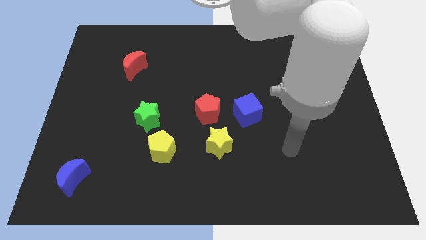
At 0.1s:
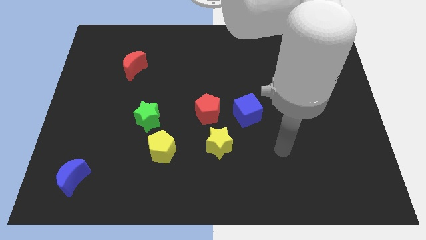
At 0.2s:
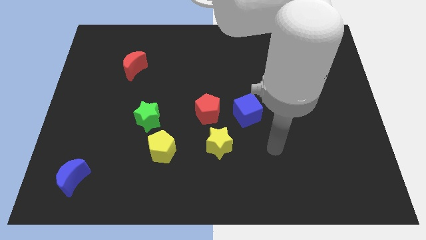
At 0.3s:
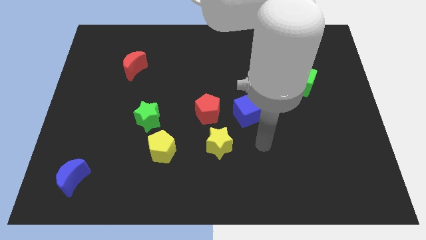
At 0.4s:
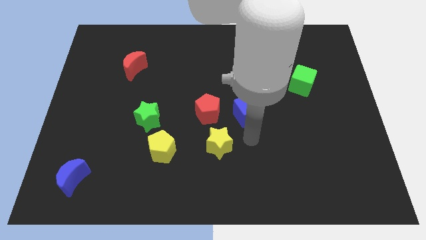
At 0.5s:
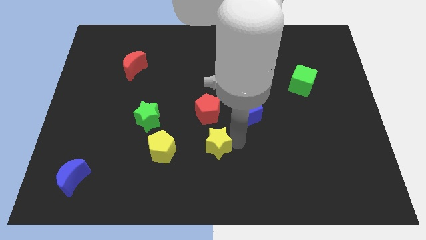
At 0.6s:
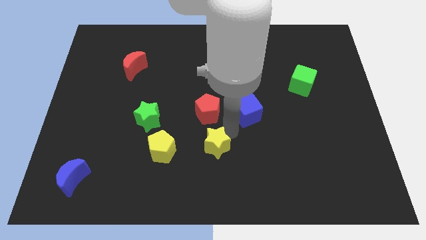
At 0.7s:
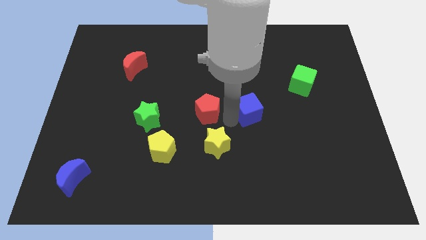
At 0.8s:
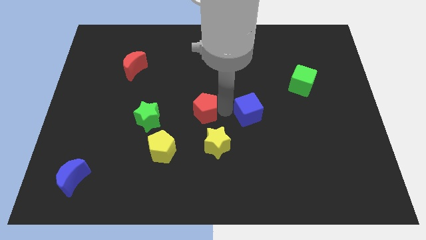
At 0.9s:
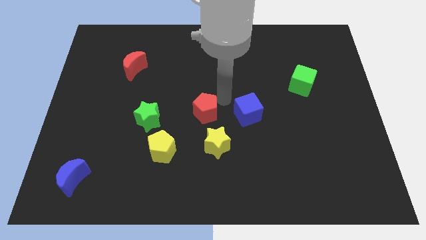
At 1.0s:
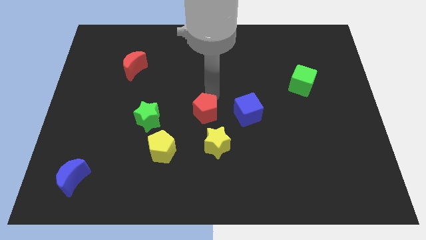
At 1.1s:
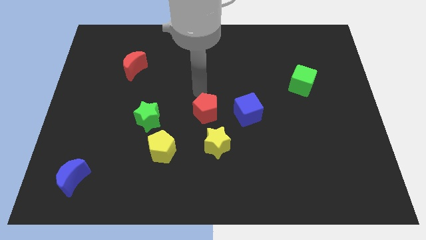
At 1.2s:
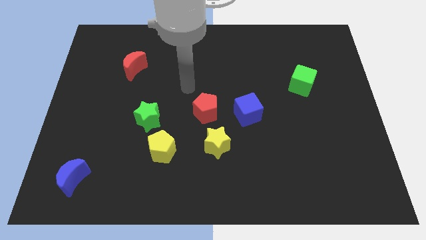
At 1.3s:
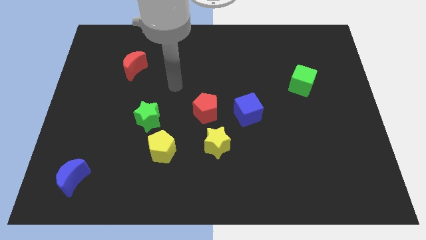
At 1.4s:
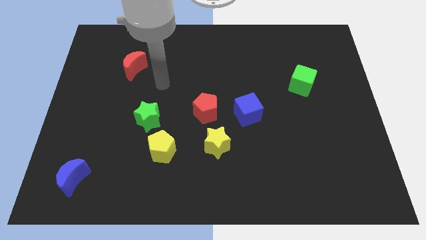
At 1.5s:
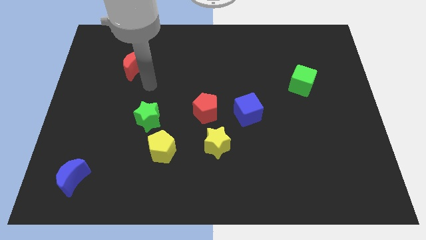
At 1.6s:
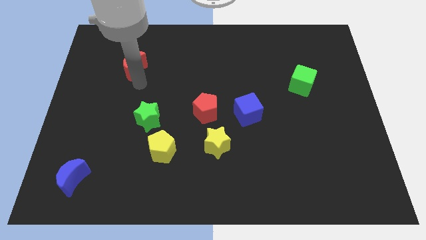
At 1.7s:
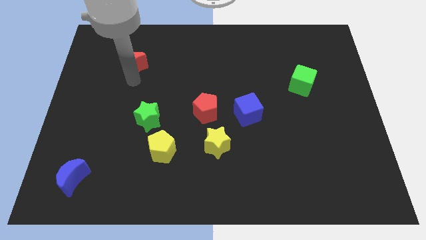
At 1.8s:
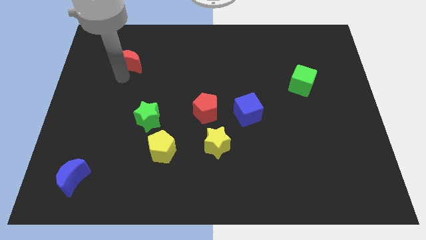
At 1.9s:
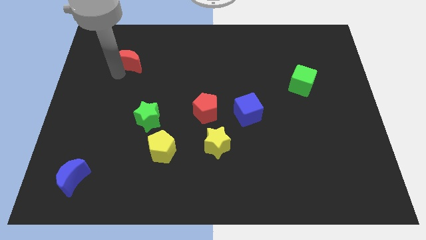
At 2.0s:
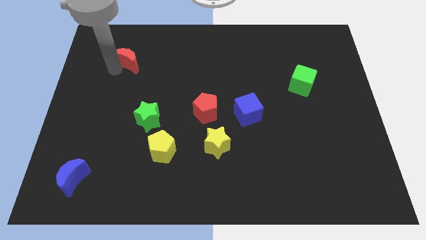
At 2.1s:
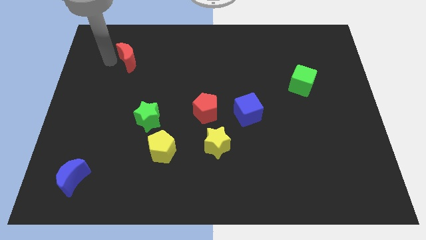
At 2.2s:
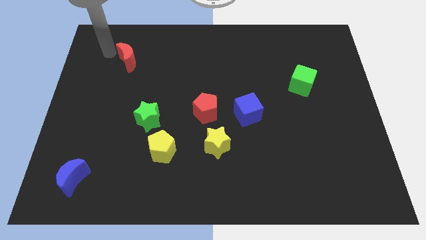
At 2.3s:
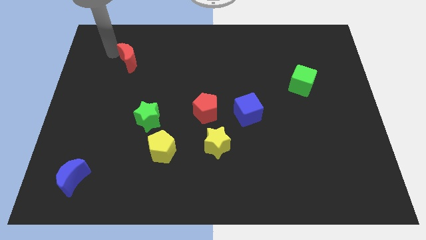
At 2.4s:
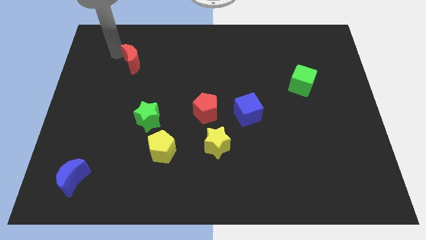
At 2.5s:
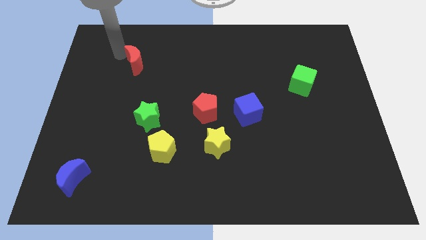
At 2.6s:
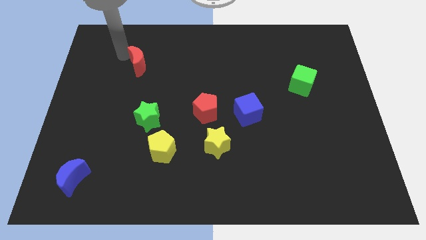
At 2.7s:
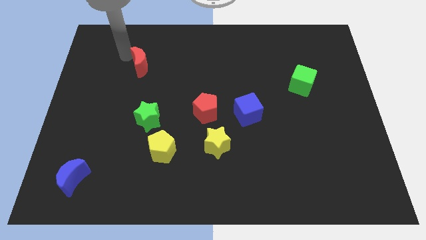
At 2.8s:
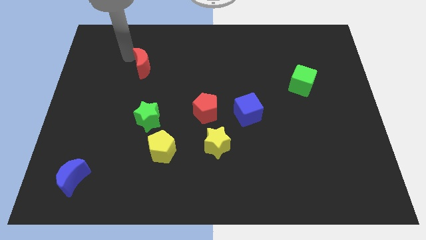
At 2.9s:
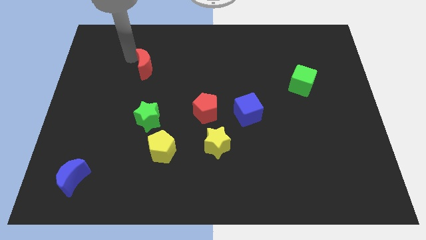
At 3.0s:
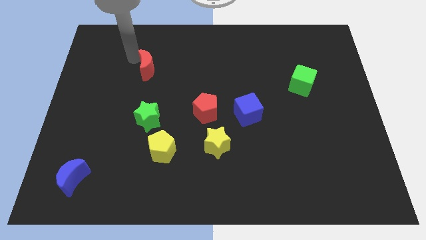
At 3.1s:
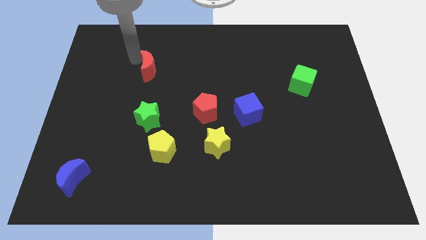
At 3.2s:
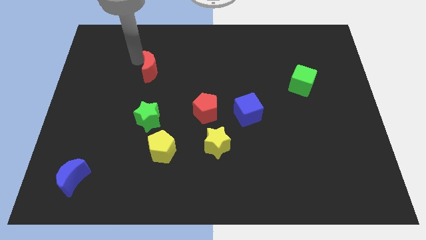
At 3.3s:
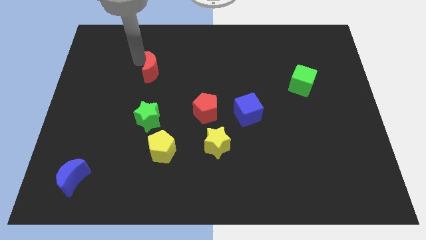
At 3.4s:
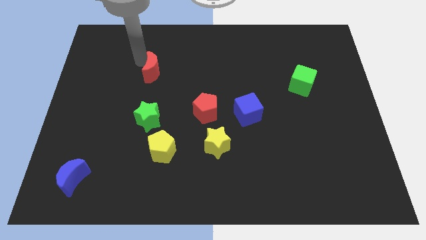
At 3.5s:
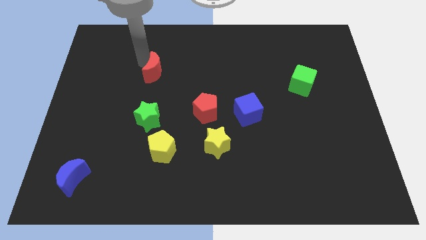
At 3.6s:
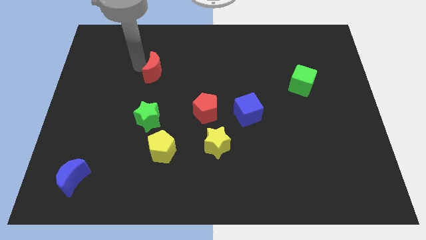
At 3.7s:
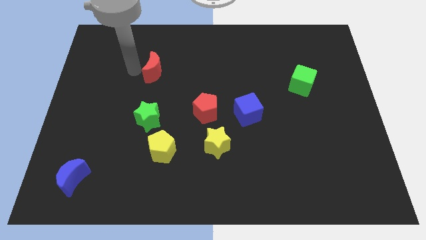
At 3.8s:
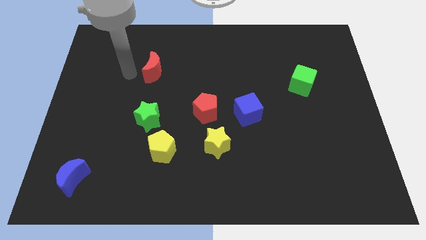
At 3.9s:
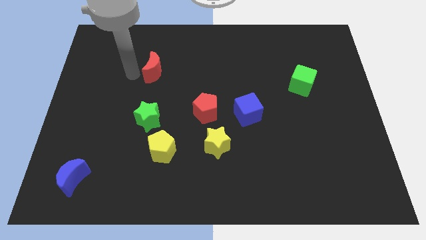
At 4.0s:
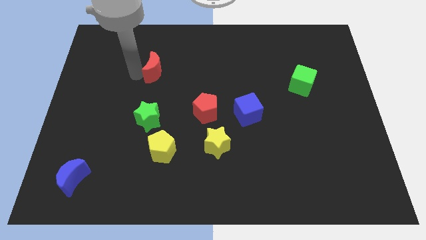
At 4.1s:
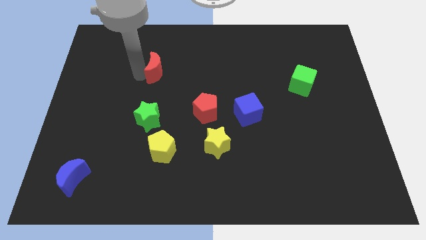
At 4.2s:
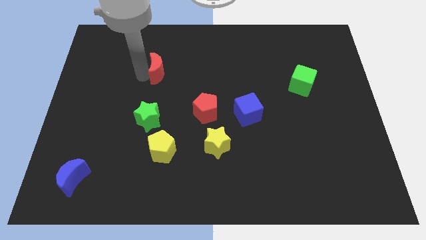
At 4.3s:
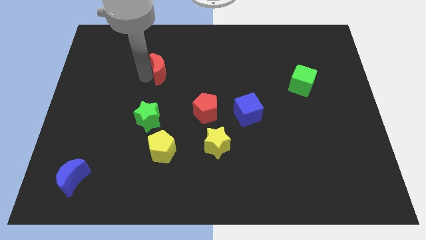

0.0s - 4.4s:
push the red moon right a bit

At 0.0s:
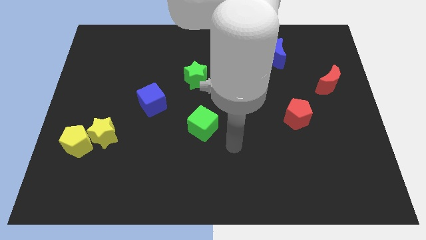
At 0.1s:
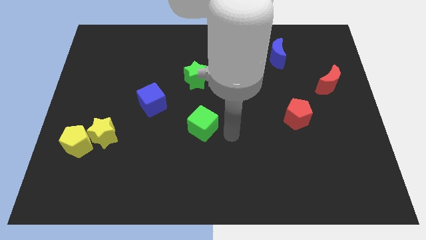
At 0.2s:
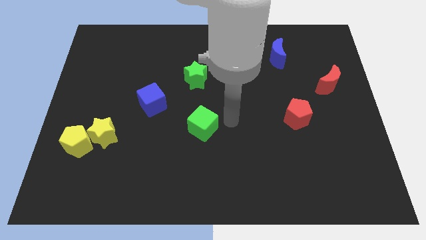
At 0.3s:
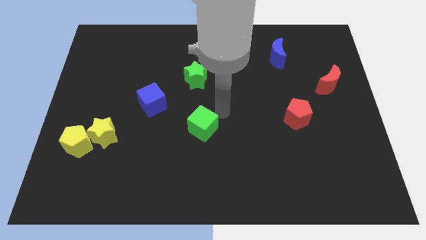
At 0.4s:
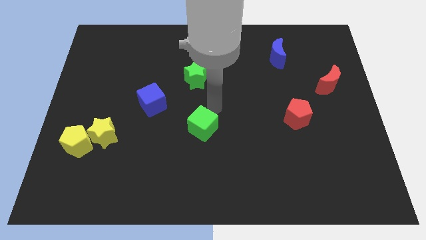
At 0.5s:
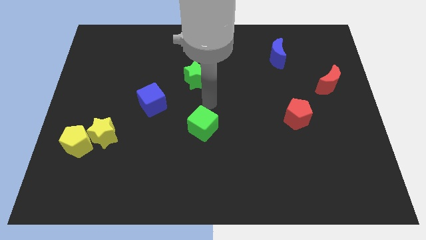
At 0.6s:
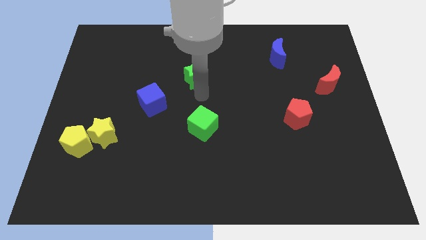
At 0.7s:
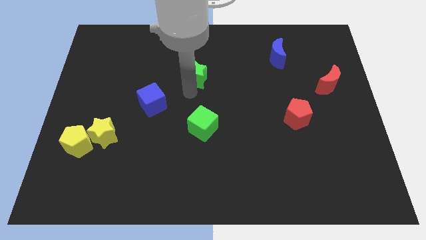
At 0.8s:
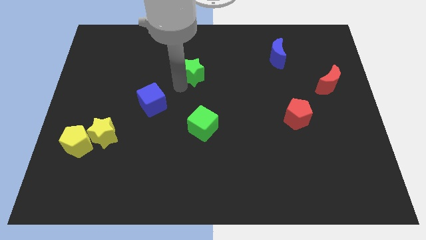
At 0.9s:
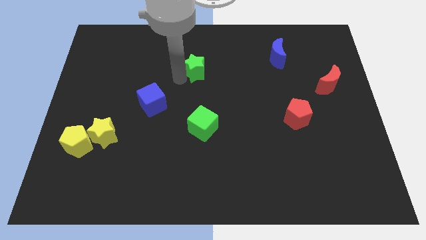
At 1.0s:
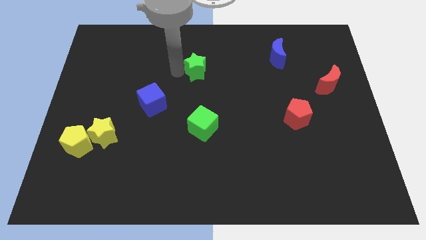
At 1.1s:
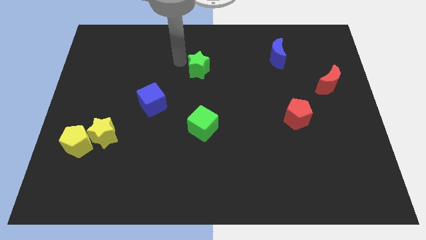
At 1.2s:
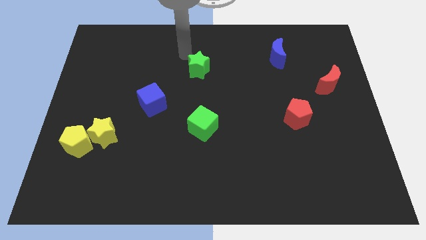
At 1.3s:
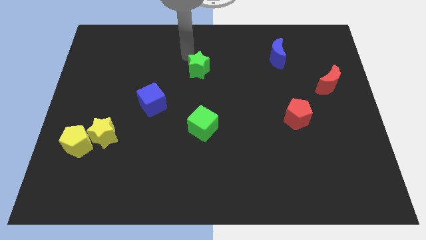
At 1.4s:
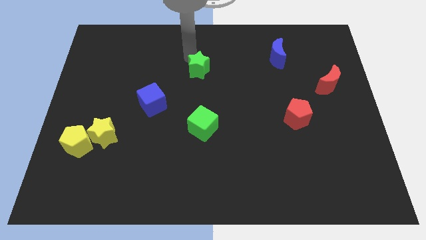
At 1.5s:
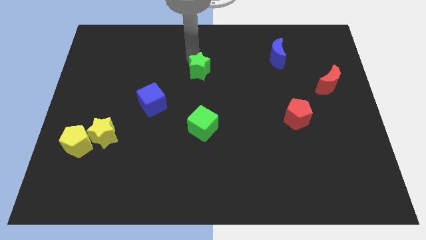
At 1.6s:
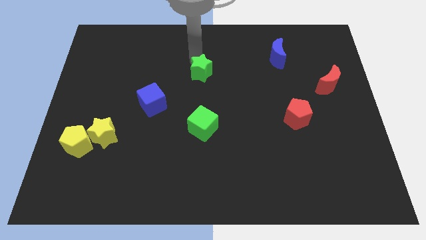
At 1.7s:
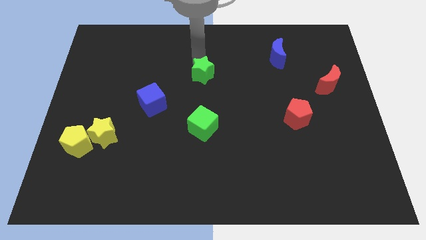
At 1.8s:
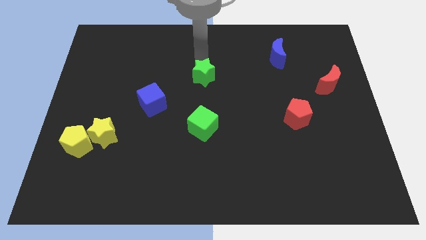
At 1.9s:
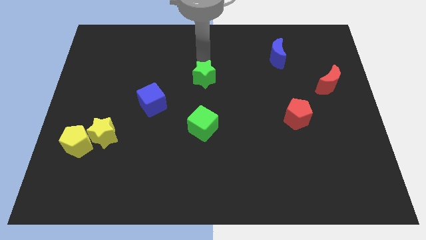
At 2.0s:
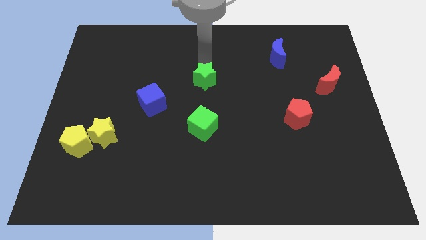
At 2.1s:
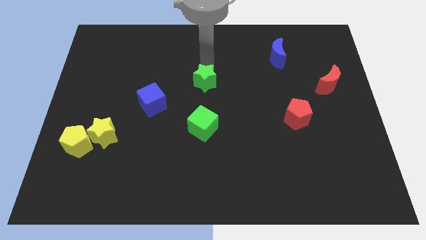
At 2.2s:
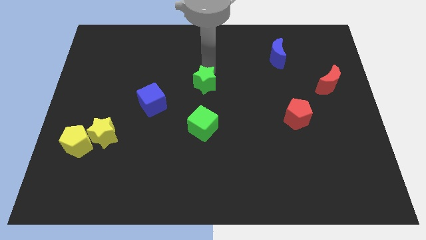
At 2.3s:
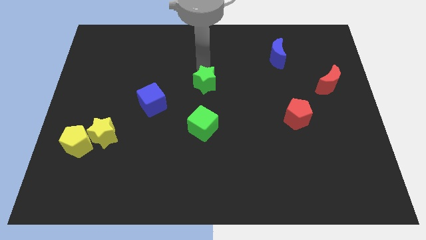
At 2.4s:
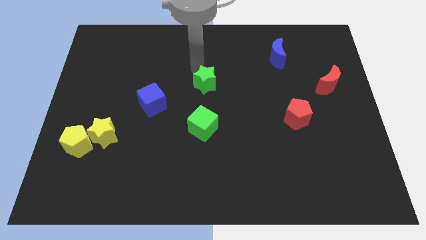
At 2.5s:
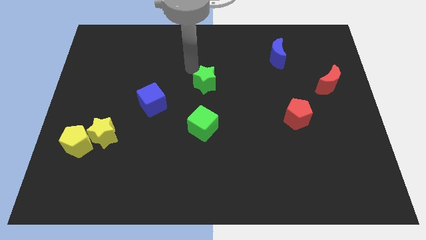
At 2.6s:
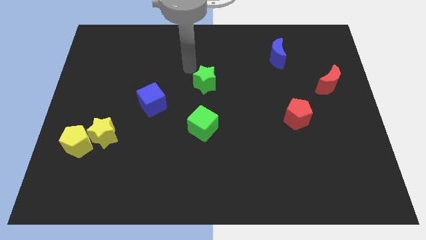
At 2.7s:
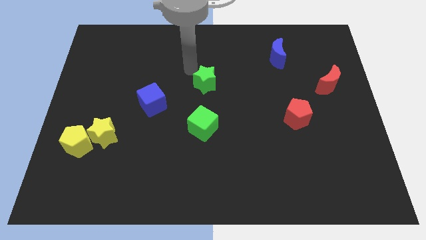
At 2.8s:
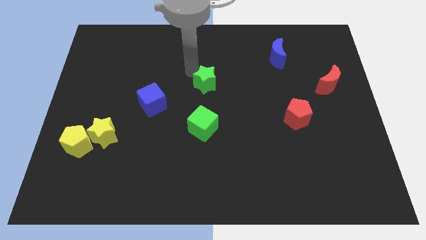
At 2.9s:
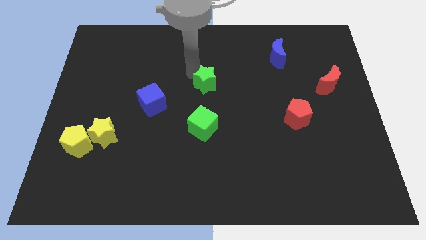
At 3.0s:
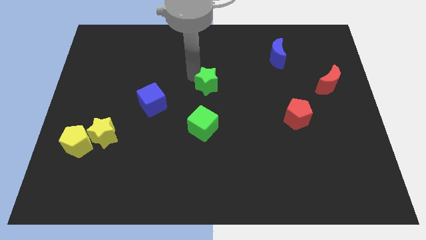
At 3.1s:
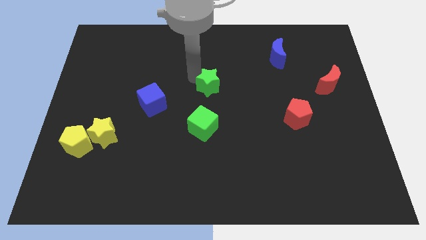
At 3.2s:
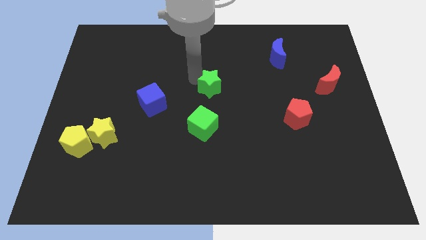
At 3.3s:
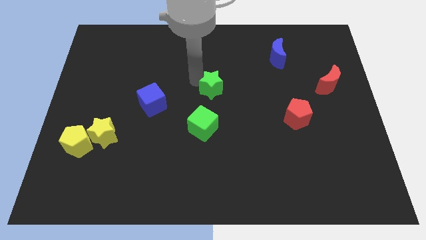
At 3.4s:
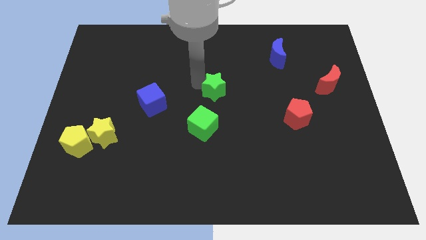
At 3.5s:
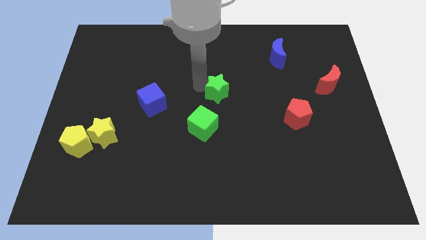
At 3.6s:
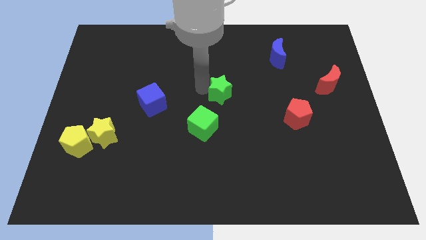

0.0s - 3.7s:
slightly slide the green star down and then right

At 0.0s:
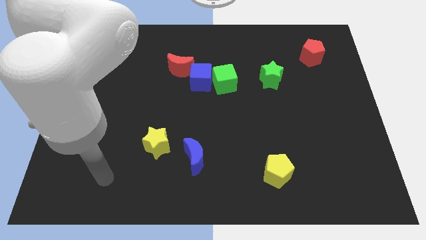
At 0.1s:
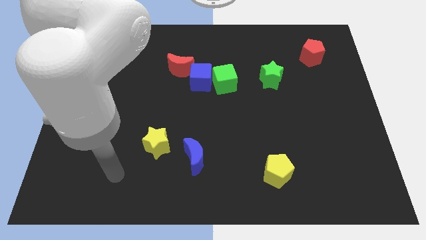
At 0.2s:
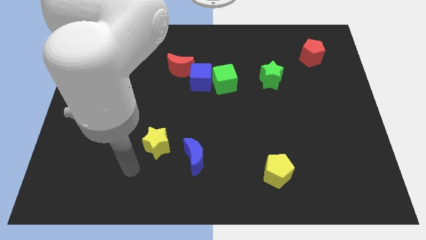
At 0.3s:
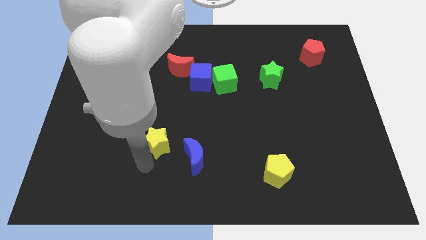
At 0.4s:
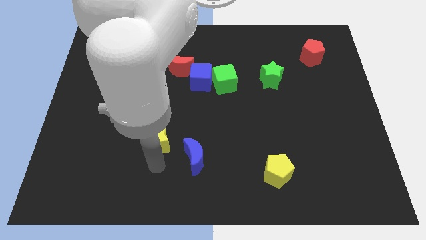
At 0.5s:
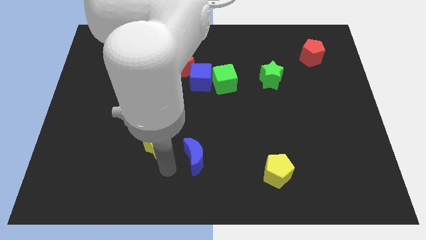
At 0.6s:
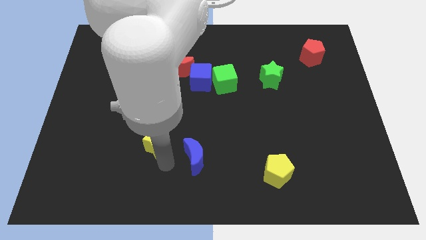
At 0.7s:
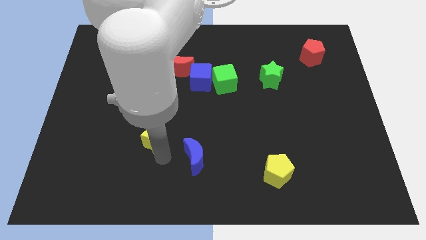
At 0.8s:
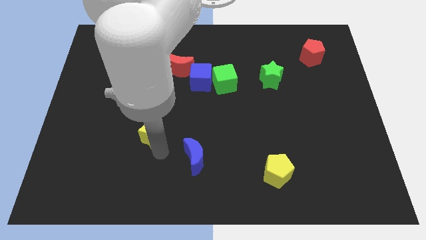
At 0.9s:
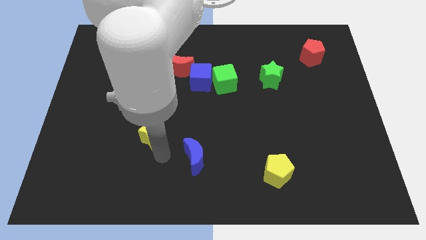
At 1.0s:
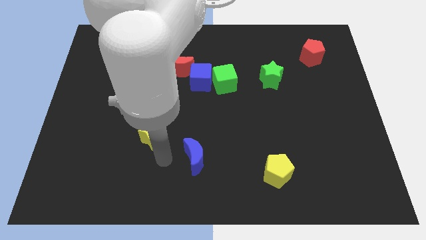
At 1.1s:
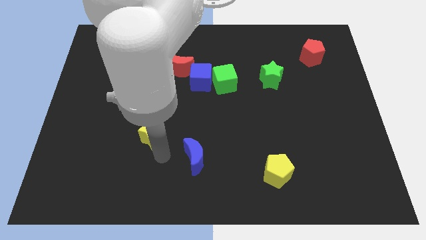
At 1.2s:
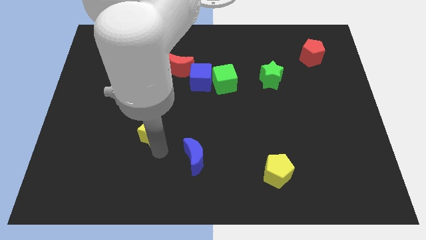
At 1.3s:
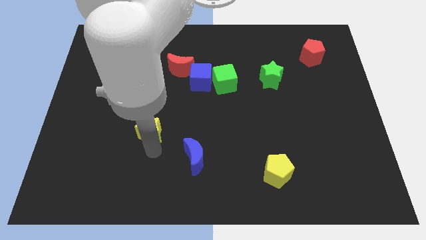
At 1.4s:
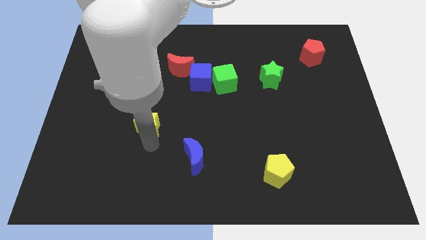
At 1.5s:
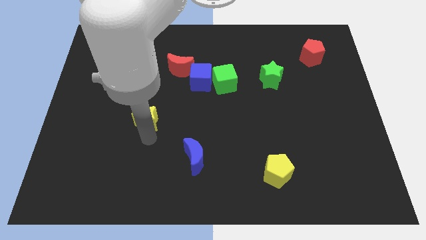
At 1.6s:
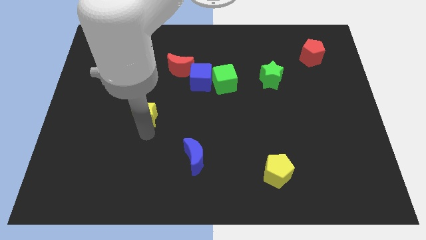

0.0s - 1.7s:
push the yellow star slightly upwards
